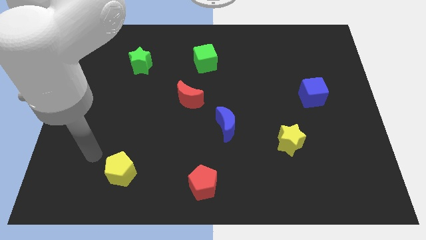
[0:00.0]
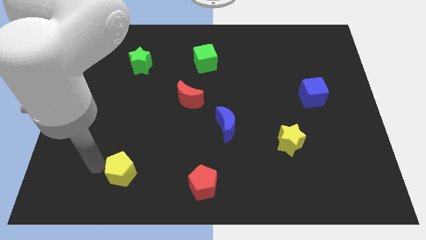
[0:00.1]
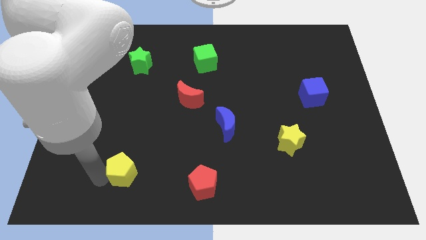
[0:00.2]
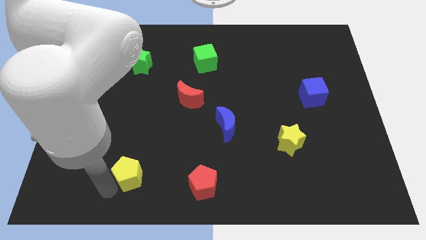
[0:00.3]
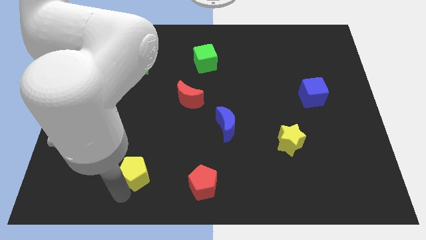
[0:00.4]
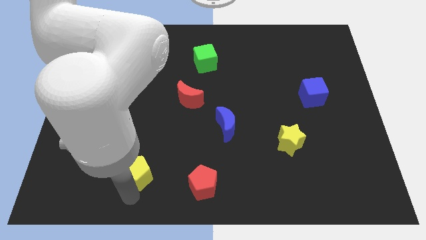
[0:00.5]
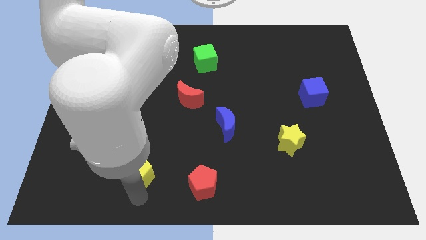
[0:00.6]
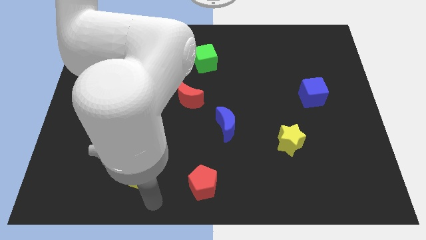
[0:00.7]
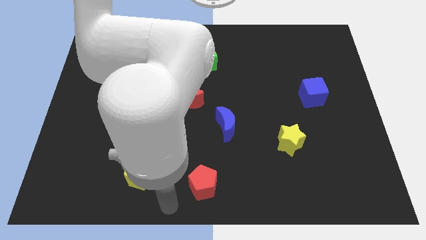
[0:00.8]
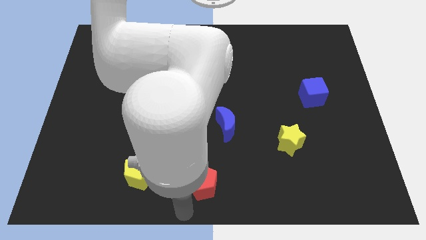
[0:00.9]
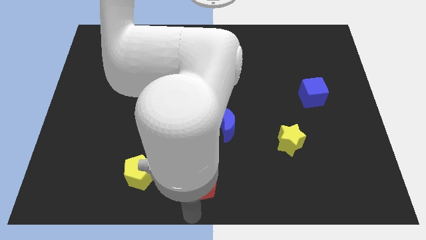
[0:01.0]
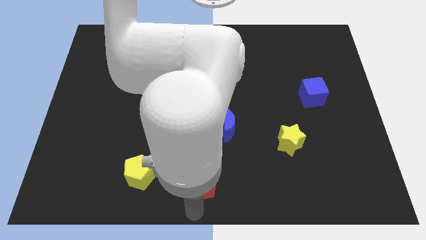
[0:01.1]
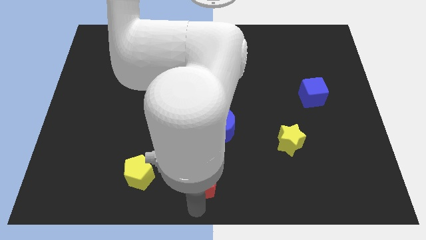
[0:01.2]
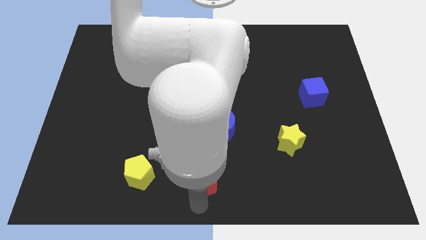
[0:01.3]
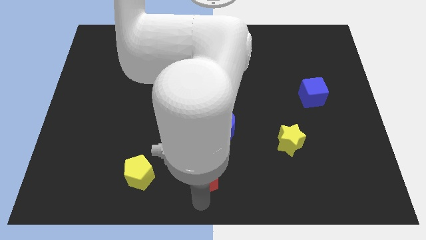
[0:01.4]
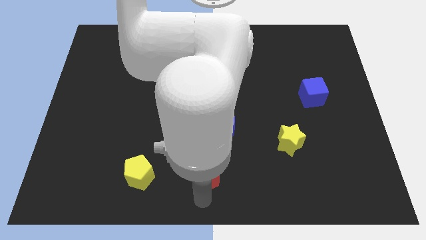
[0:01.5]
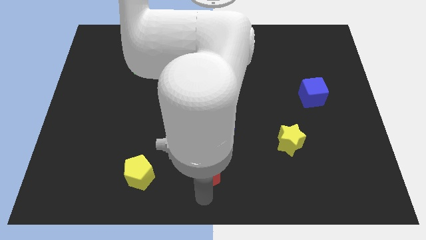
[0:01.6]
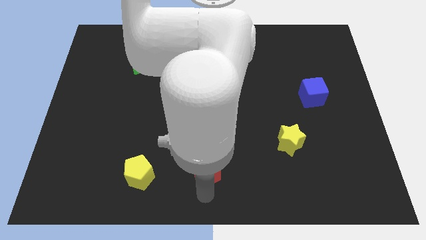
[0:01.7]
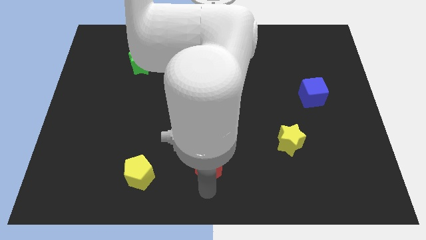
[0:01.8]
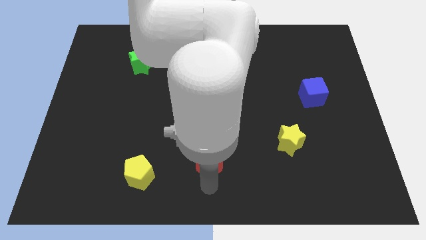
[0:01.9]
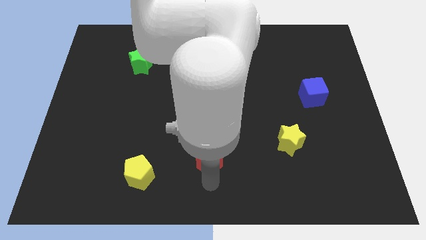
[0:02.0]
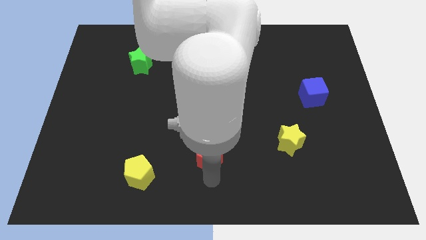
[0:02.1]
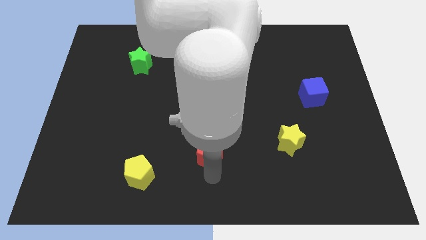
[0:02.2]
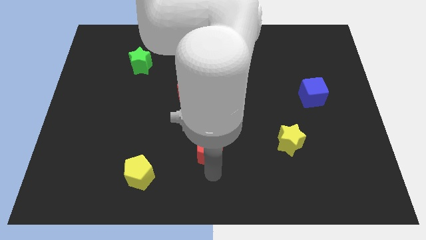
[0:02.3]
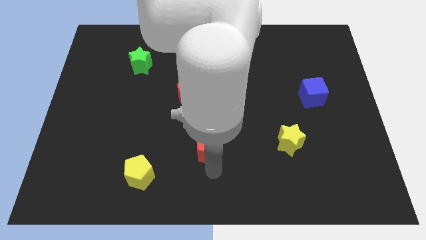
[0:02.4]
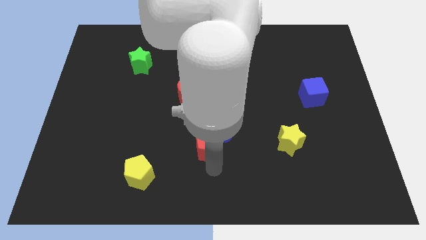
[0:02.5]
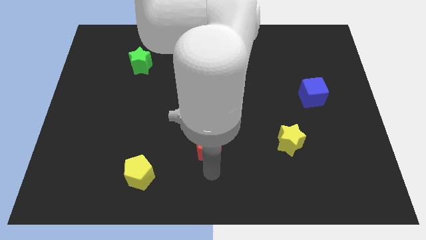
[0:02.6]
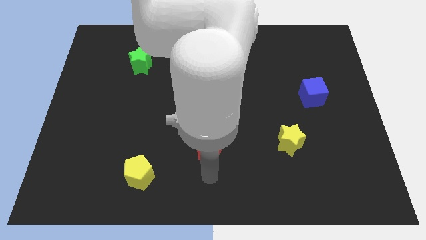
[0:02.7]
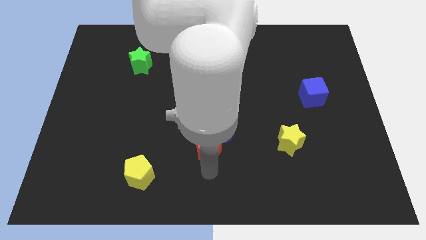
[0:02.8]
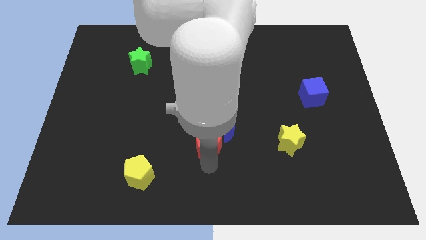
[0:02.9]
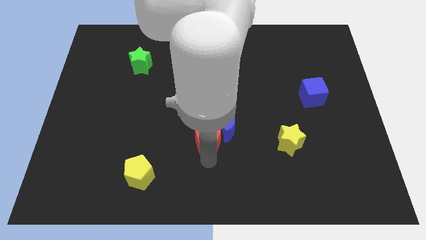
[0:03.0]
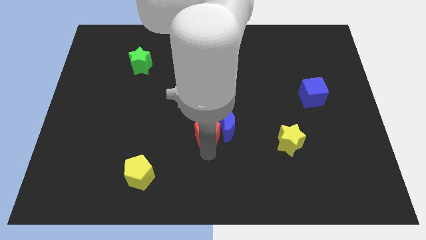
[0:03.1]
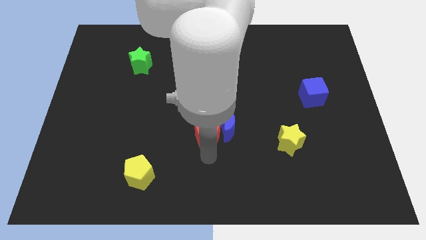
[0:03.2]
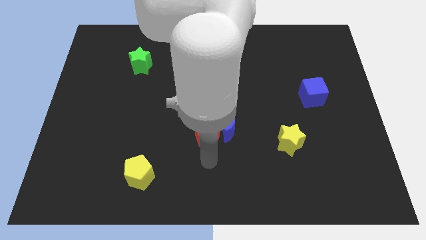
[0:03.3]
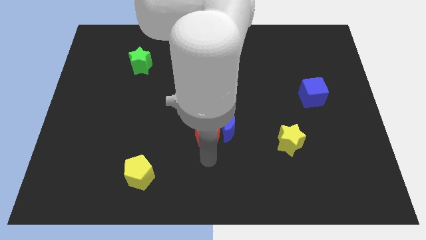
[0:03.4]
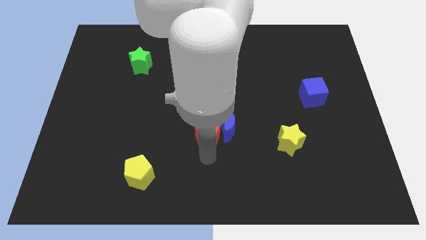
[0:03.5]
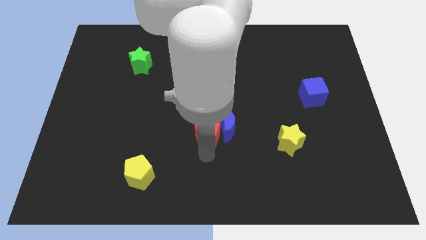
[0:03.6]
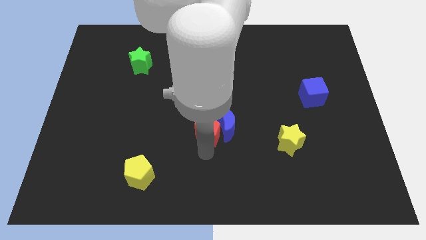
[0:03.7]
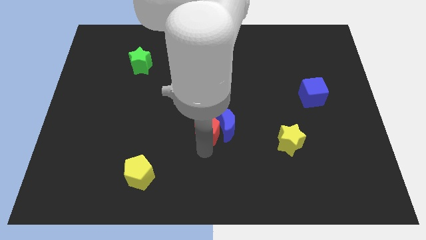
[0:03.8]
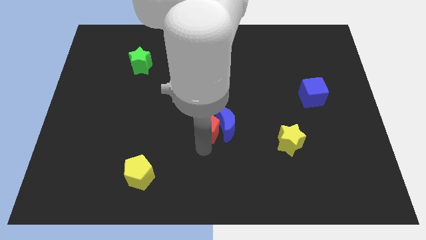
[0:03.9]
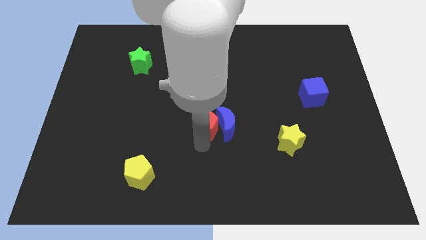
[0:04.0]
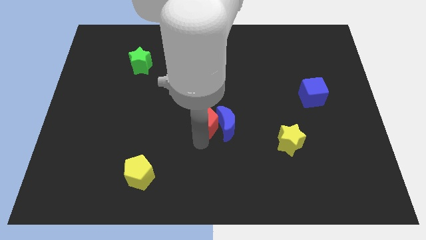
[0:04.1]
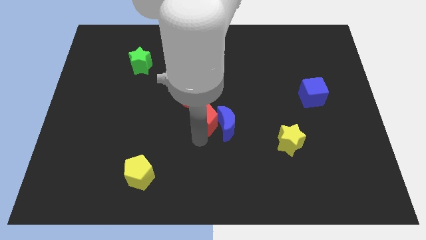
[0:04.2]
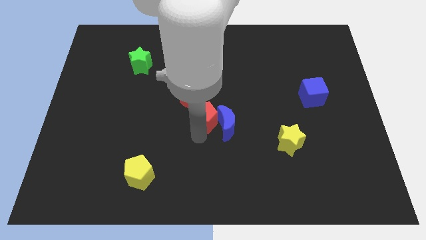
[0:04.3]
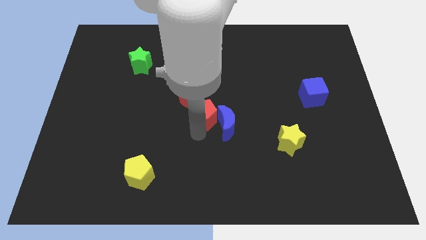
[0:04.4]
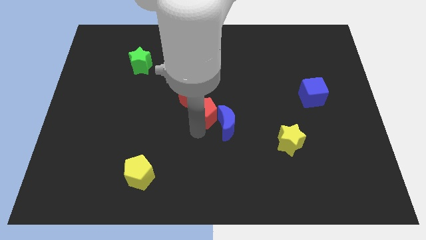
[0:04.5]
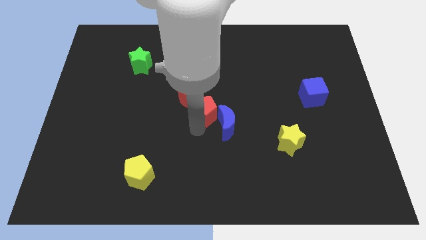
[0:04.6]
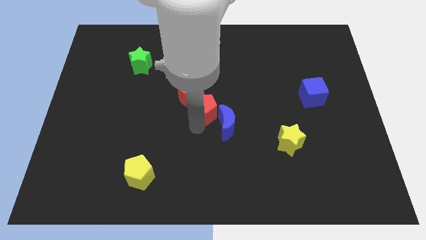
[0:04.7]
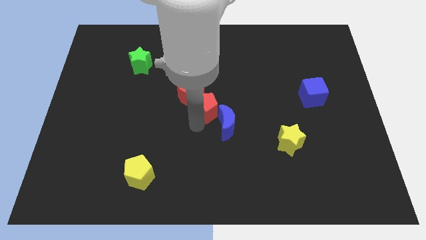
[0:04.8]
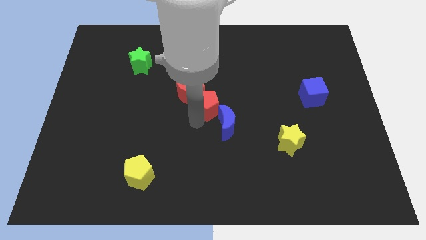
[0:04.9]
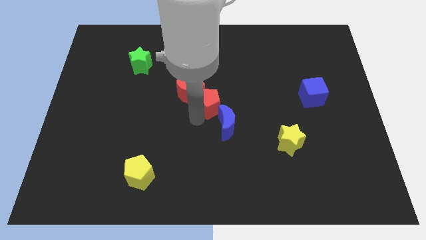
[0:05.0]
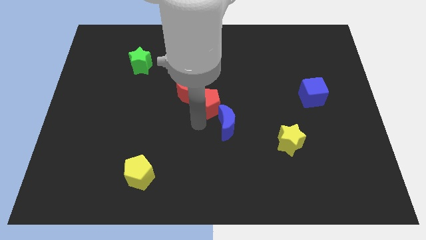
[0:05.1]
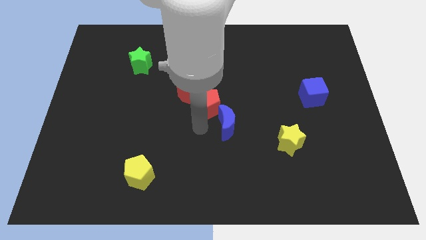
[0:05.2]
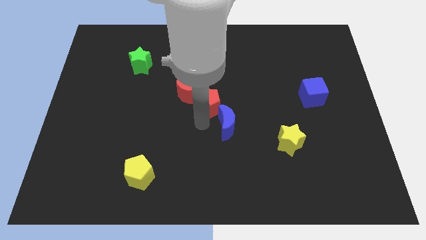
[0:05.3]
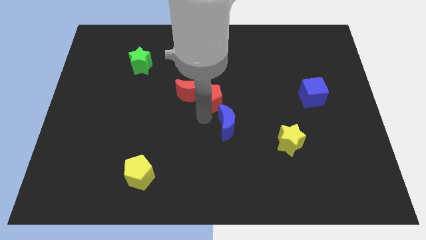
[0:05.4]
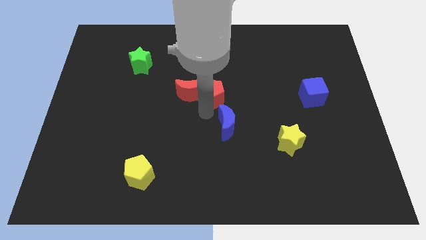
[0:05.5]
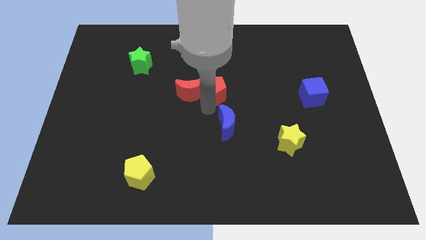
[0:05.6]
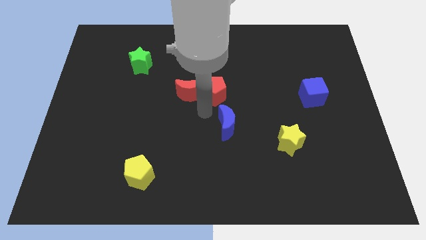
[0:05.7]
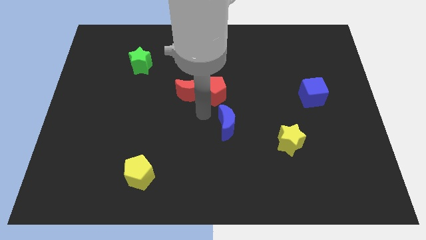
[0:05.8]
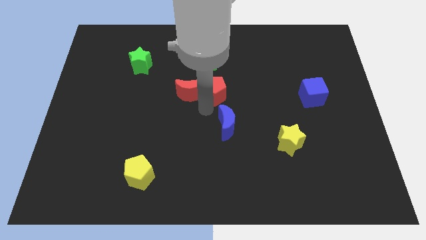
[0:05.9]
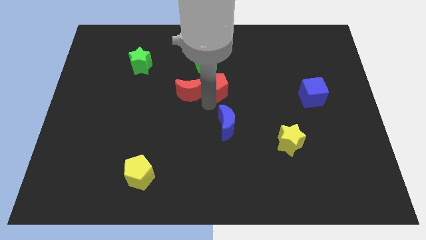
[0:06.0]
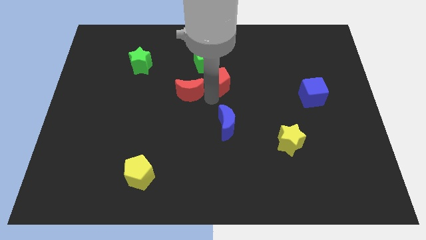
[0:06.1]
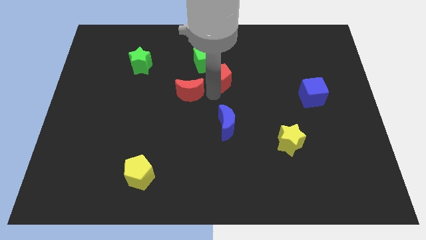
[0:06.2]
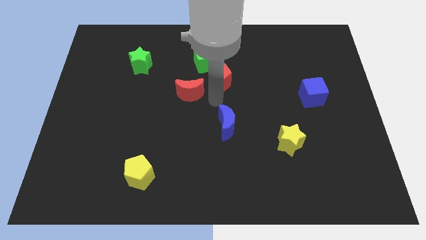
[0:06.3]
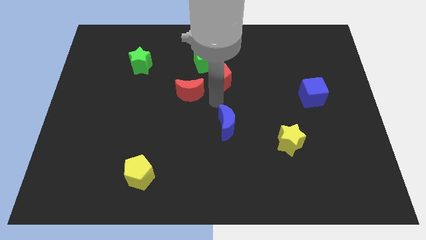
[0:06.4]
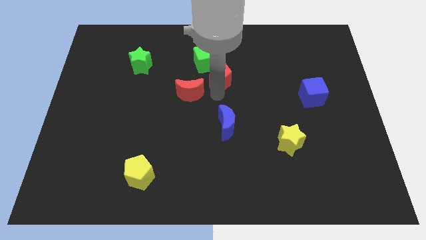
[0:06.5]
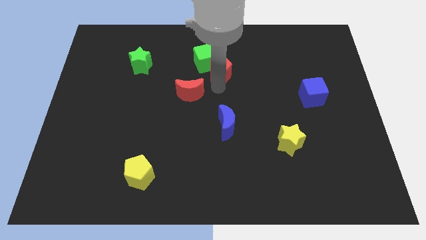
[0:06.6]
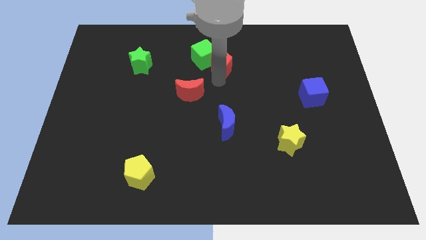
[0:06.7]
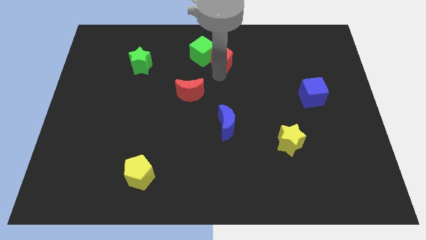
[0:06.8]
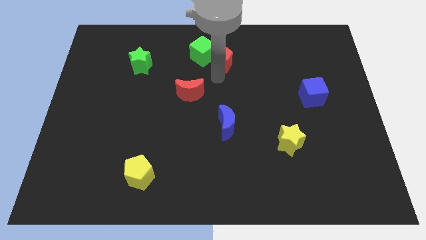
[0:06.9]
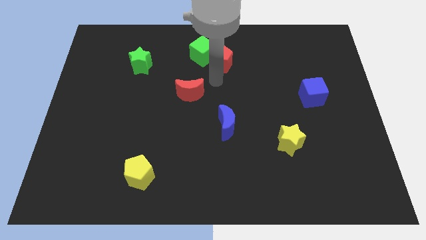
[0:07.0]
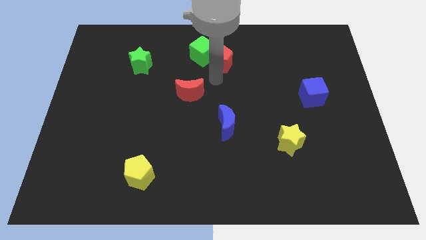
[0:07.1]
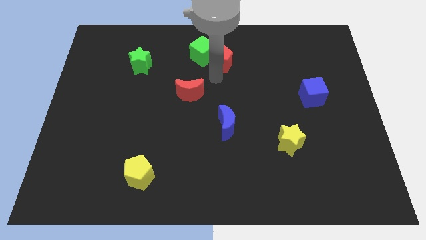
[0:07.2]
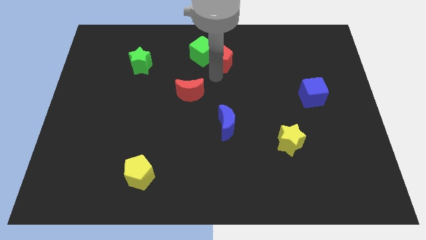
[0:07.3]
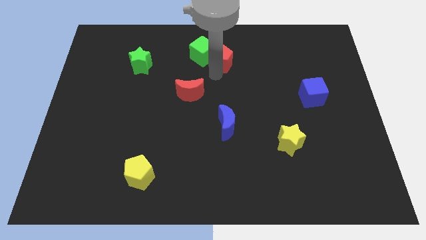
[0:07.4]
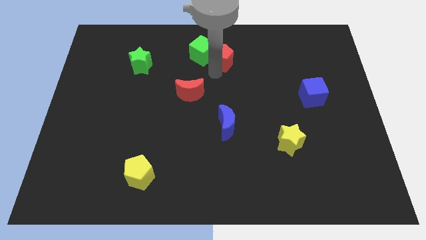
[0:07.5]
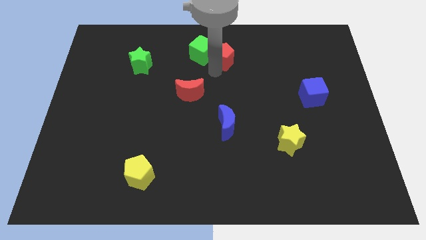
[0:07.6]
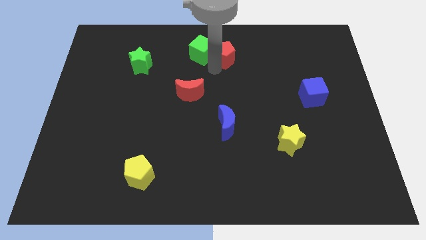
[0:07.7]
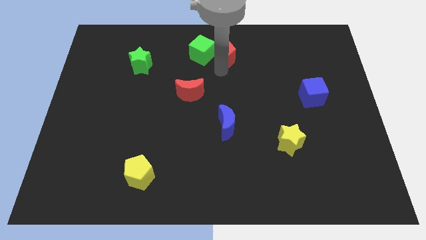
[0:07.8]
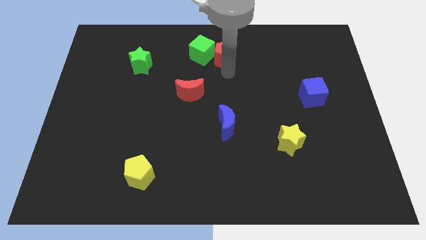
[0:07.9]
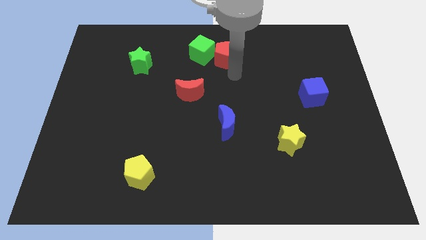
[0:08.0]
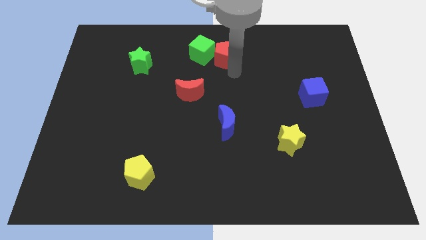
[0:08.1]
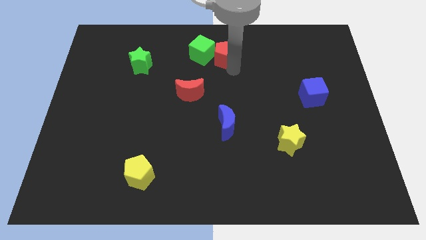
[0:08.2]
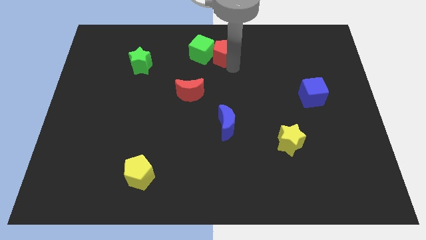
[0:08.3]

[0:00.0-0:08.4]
slide the red pentagon to the top side
